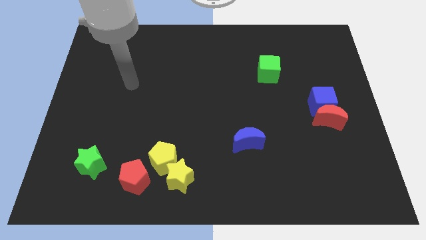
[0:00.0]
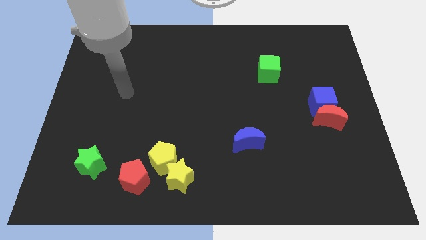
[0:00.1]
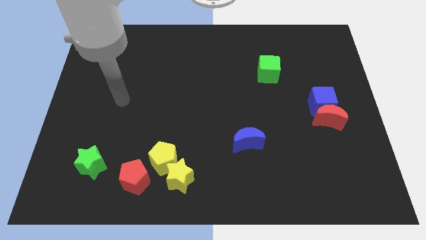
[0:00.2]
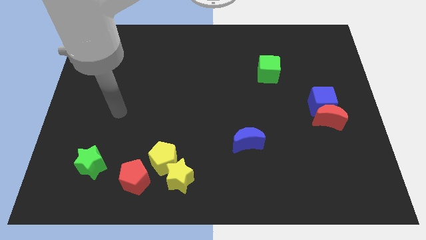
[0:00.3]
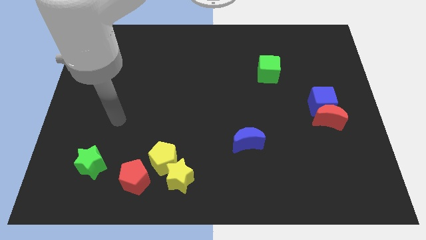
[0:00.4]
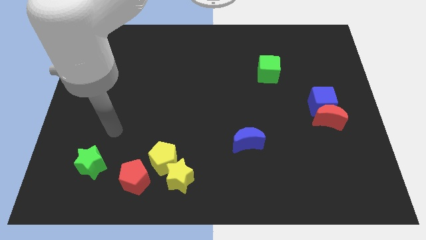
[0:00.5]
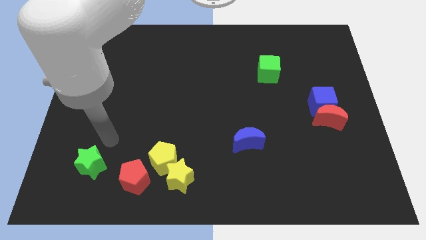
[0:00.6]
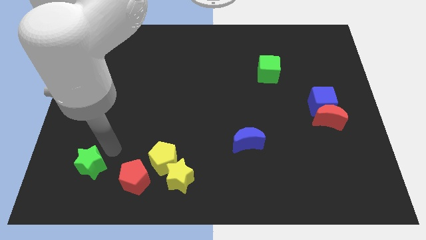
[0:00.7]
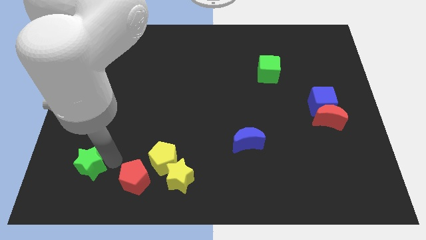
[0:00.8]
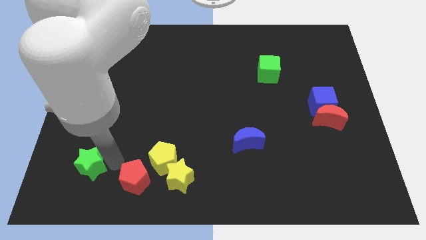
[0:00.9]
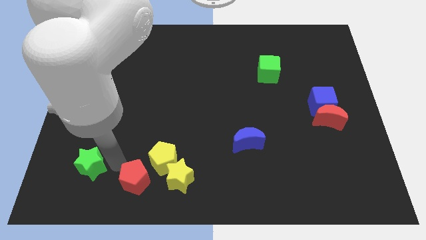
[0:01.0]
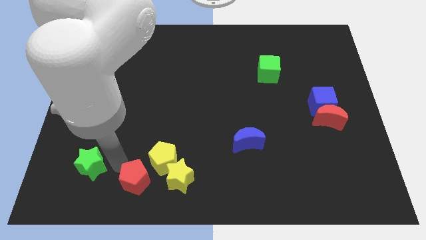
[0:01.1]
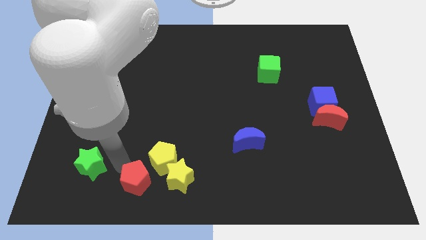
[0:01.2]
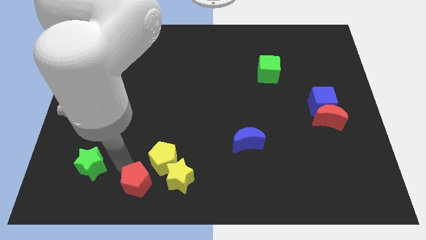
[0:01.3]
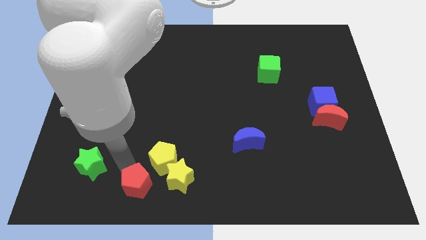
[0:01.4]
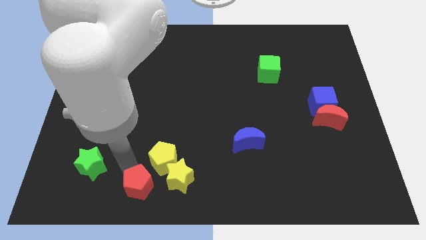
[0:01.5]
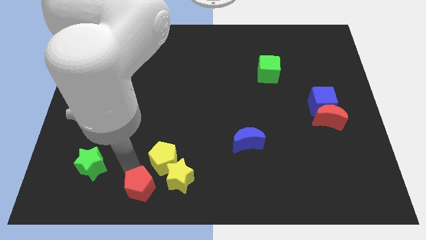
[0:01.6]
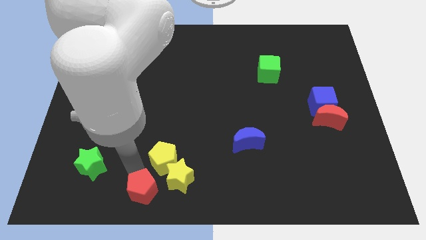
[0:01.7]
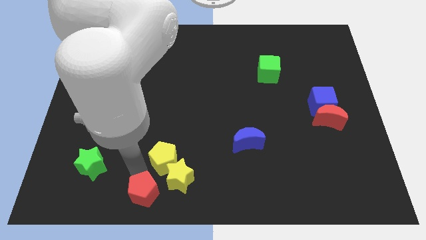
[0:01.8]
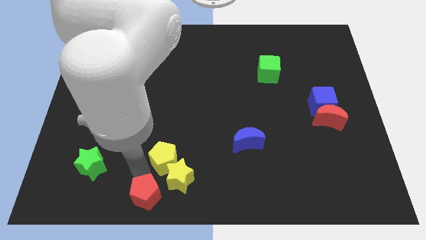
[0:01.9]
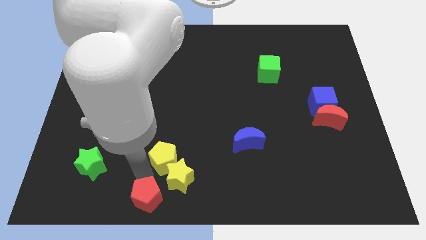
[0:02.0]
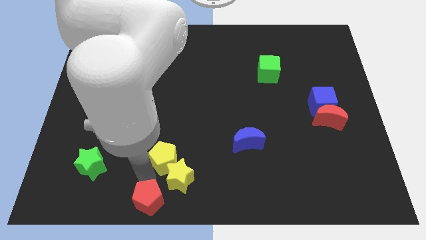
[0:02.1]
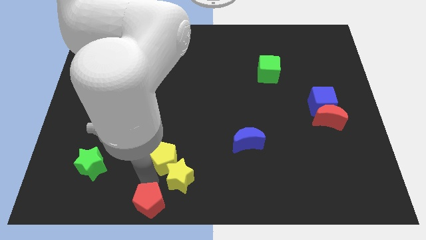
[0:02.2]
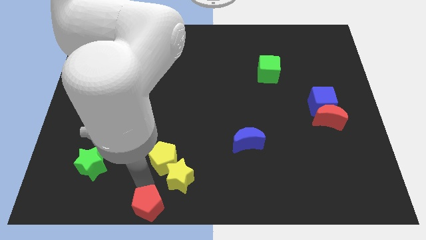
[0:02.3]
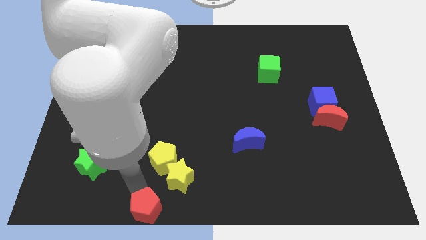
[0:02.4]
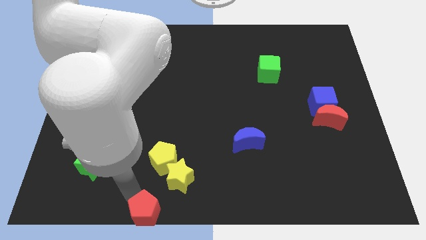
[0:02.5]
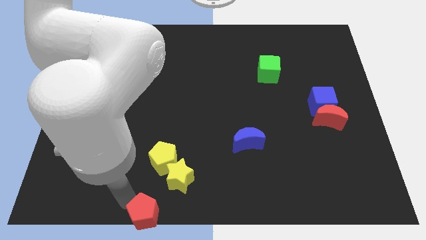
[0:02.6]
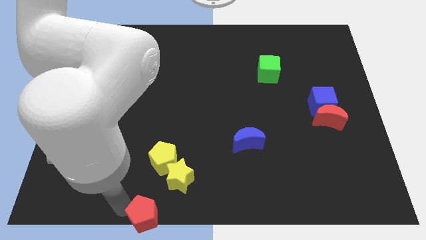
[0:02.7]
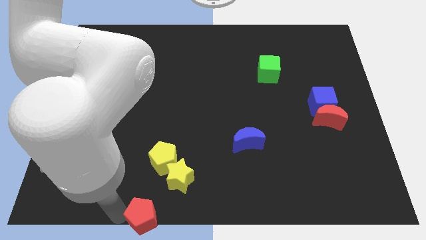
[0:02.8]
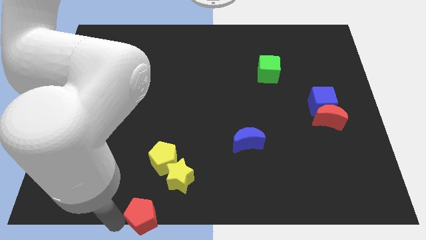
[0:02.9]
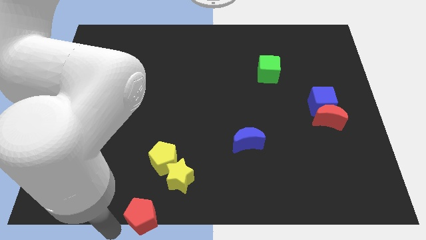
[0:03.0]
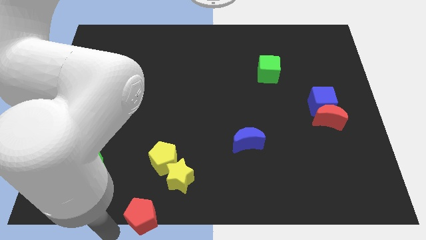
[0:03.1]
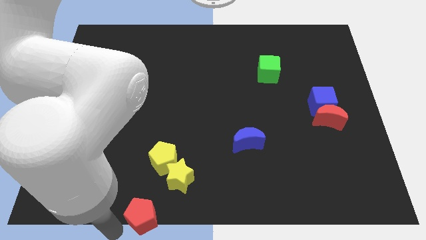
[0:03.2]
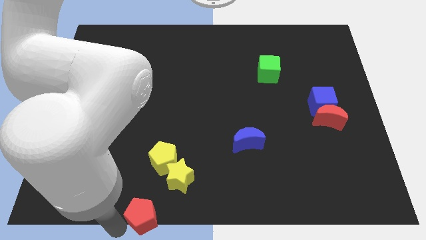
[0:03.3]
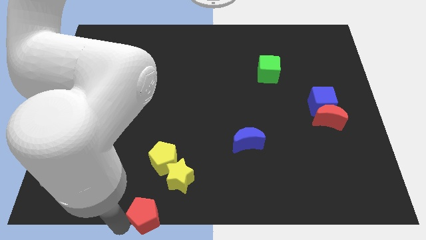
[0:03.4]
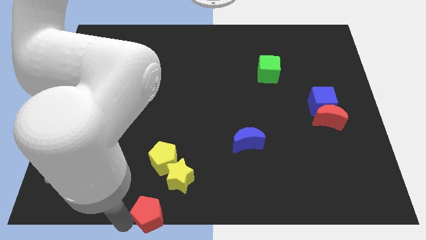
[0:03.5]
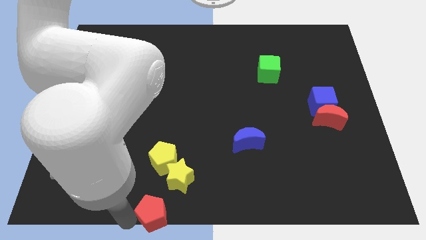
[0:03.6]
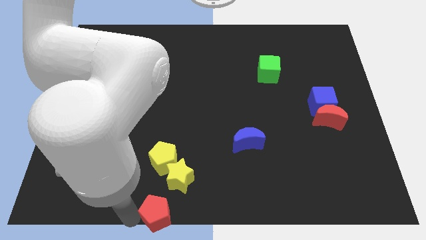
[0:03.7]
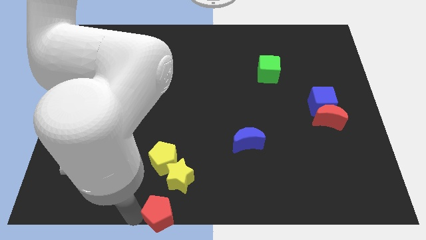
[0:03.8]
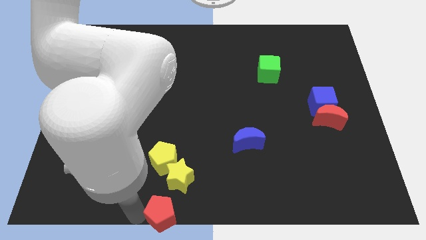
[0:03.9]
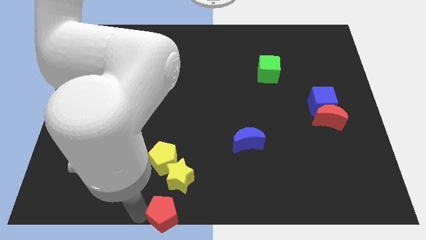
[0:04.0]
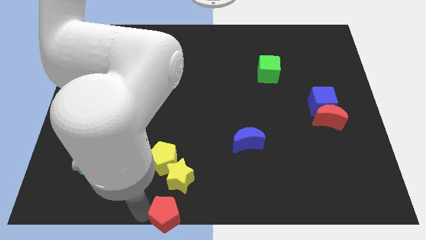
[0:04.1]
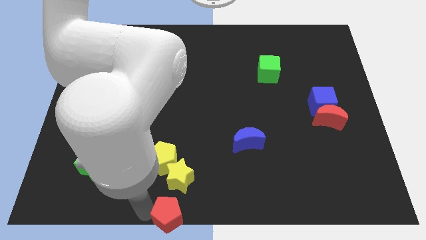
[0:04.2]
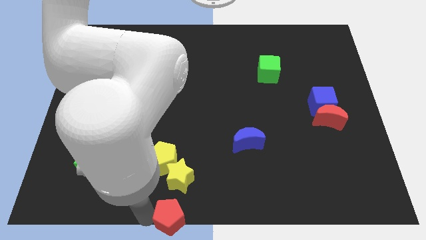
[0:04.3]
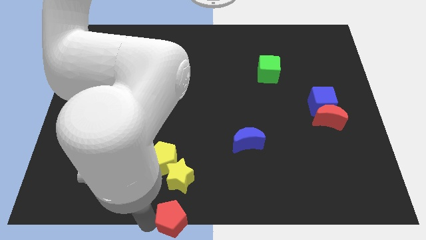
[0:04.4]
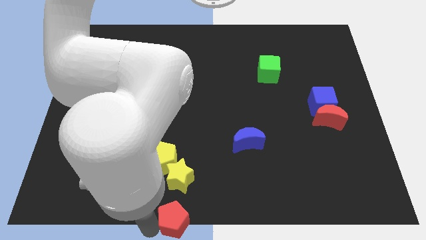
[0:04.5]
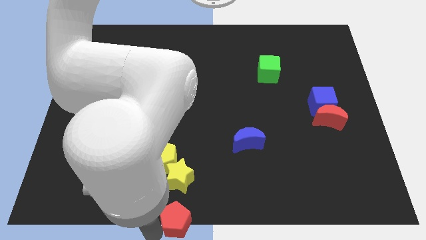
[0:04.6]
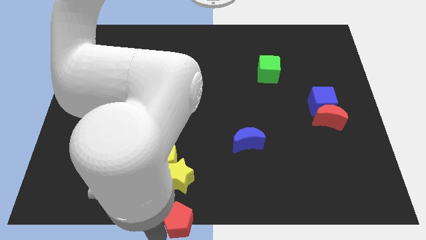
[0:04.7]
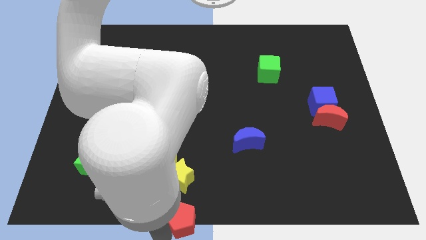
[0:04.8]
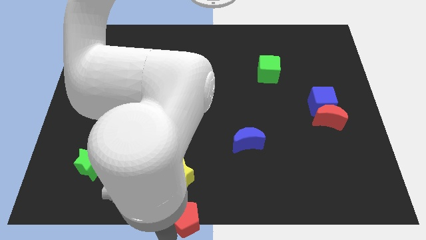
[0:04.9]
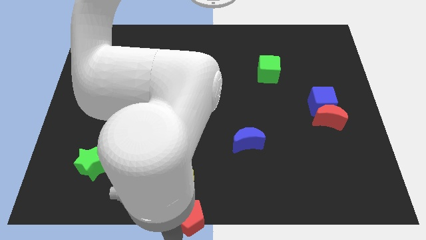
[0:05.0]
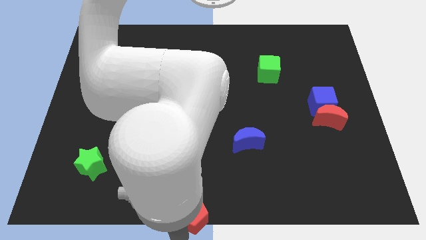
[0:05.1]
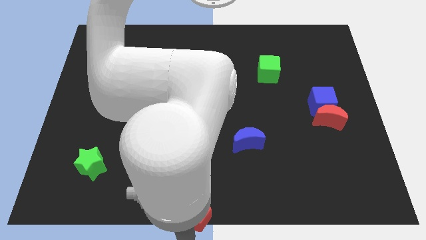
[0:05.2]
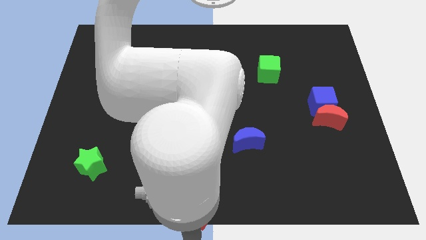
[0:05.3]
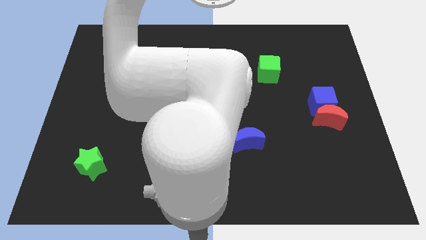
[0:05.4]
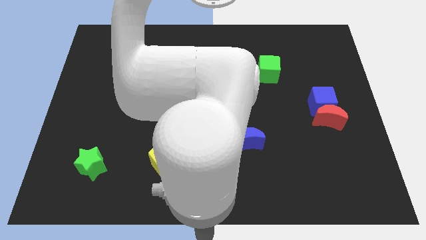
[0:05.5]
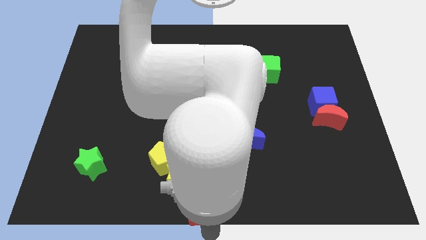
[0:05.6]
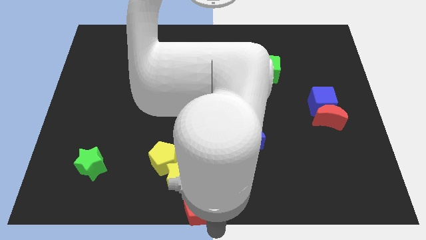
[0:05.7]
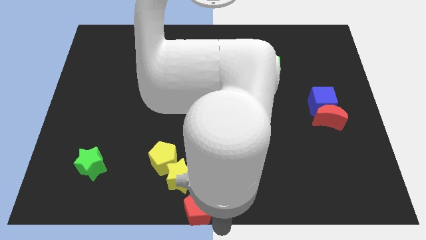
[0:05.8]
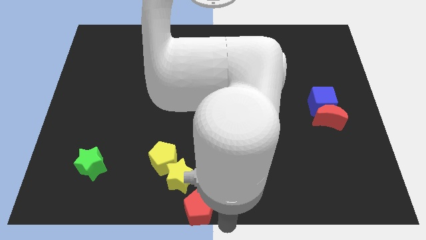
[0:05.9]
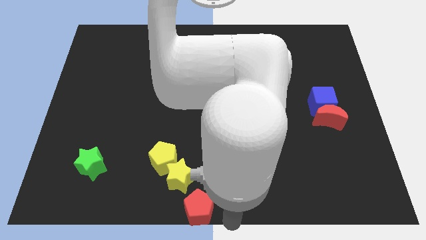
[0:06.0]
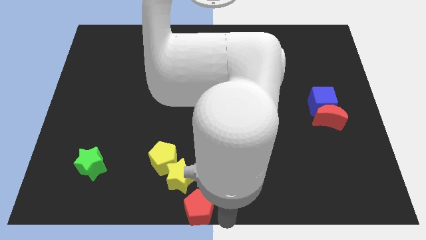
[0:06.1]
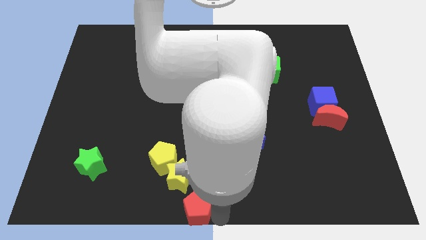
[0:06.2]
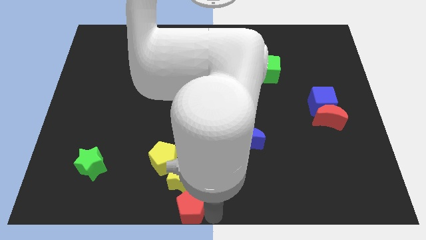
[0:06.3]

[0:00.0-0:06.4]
push the red pentagon diagonally down and to the right of the yellow pentagon

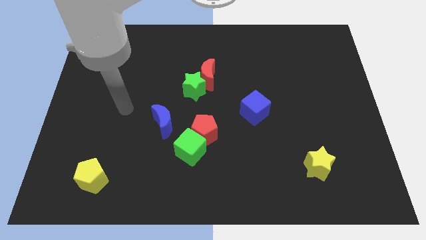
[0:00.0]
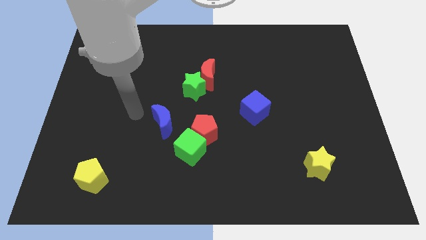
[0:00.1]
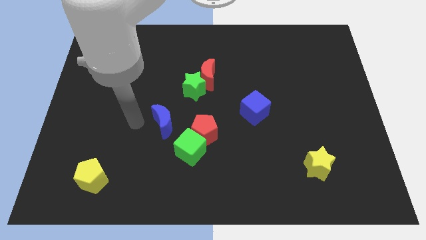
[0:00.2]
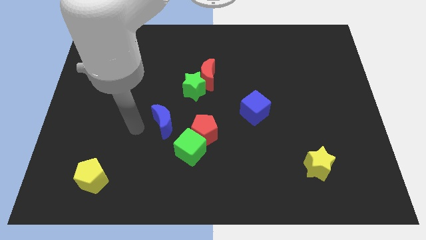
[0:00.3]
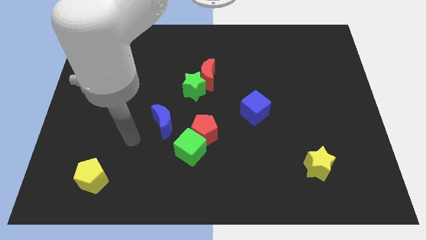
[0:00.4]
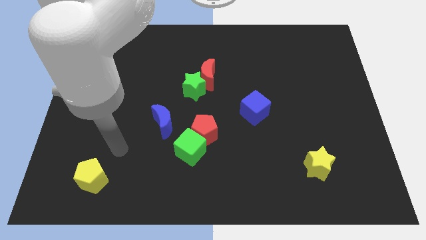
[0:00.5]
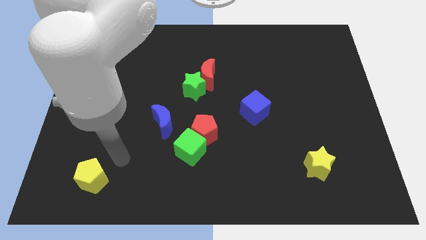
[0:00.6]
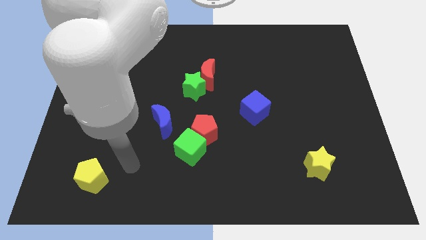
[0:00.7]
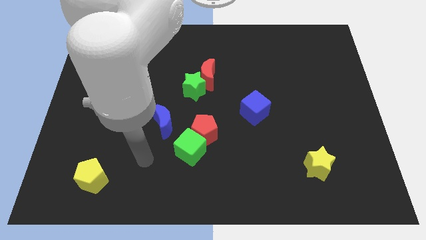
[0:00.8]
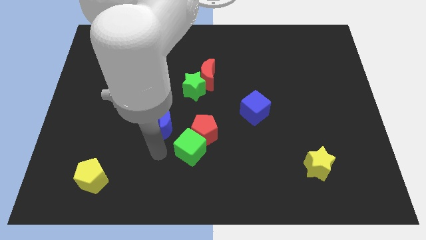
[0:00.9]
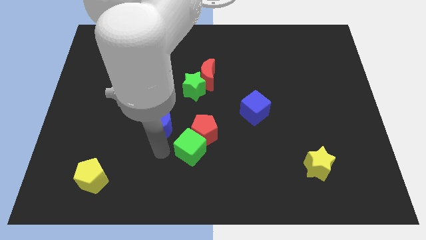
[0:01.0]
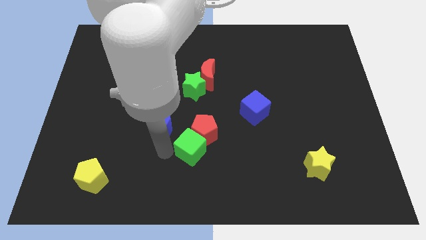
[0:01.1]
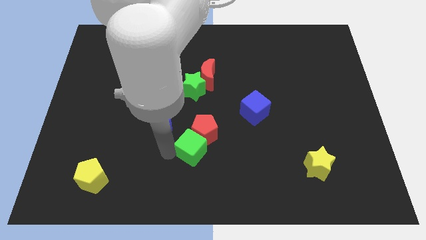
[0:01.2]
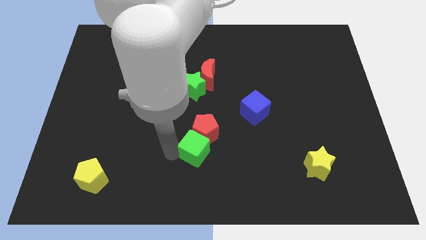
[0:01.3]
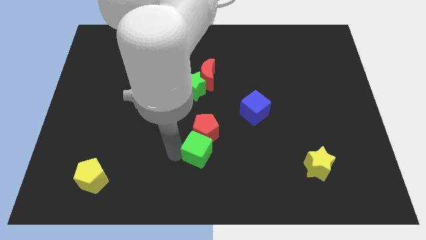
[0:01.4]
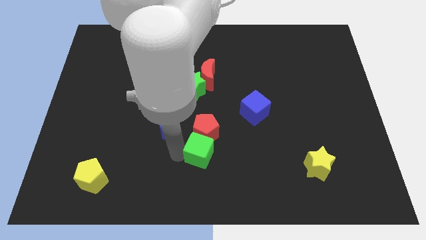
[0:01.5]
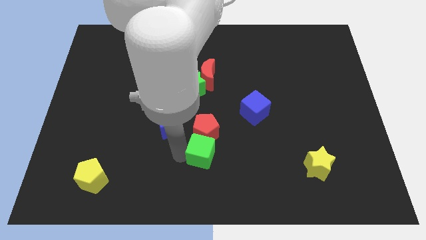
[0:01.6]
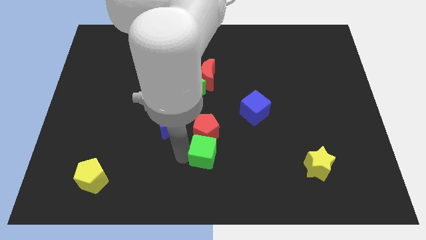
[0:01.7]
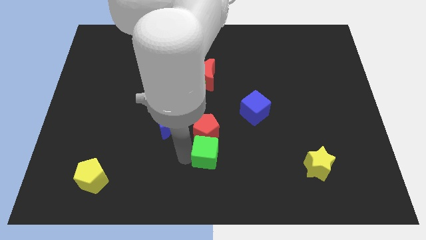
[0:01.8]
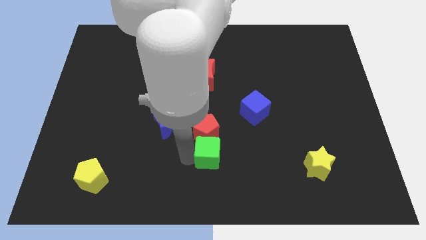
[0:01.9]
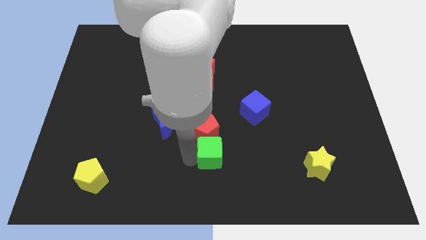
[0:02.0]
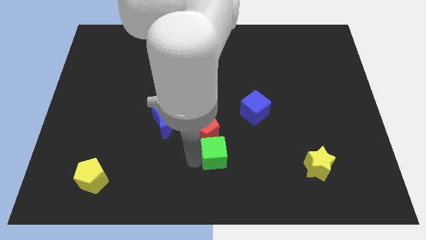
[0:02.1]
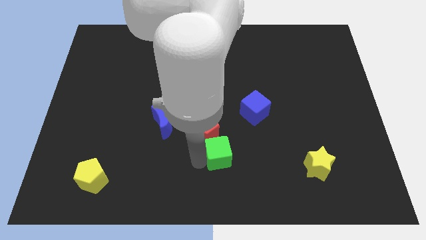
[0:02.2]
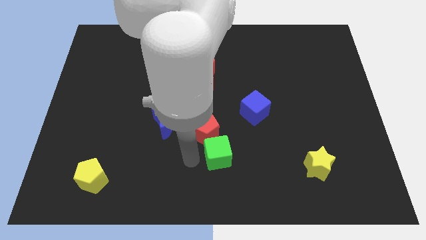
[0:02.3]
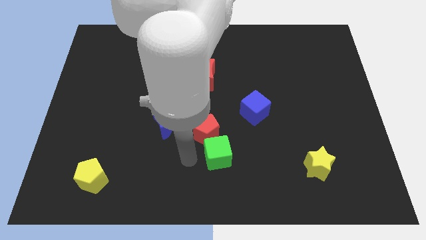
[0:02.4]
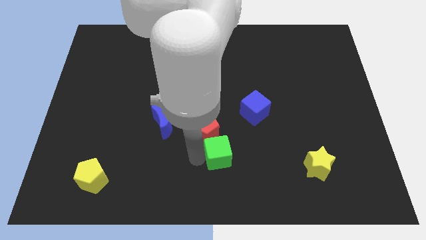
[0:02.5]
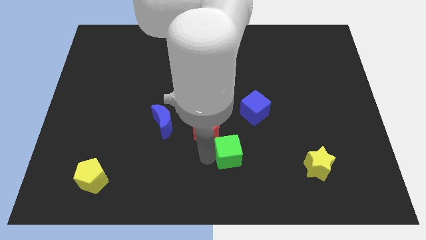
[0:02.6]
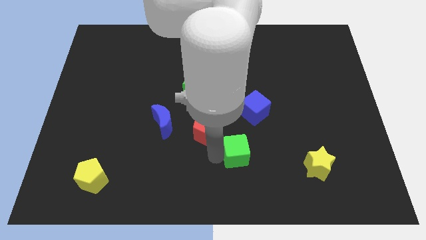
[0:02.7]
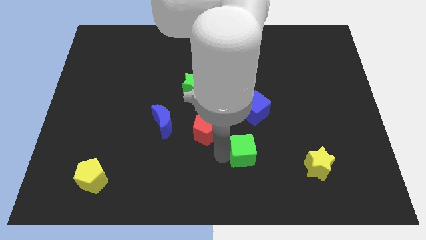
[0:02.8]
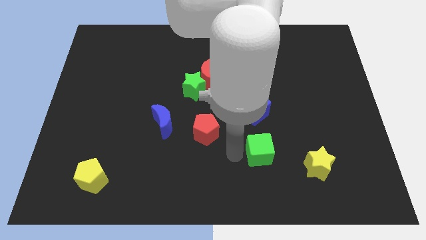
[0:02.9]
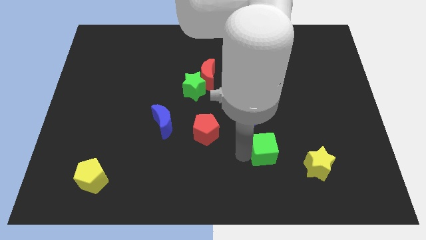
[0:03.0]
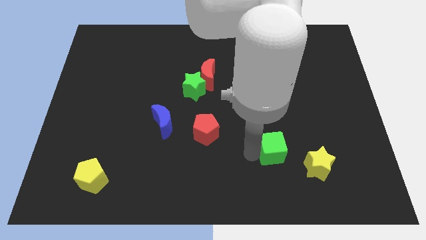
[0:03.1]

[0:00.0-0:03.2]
slide the green cube diagonally up and to the left of the yellow star
